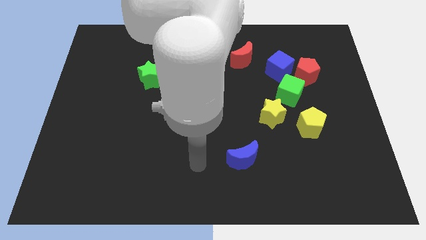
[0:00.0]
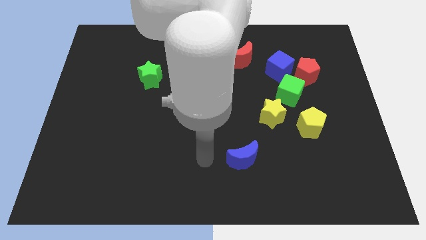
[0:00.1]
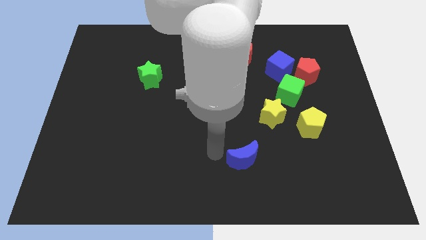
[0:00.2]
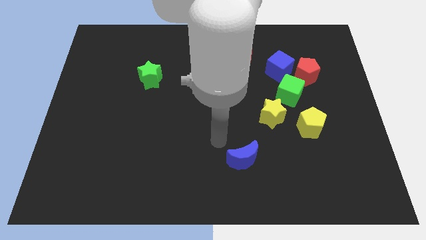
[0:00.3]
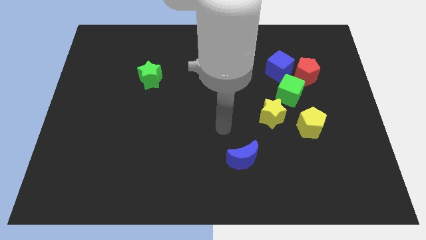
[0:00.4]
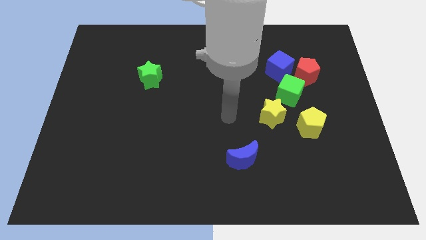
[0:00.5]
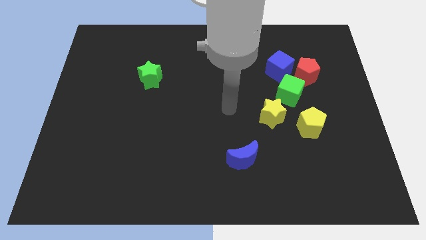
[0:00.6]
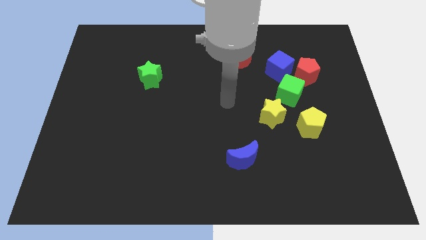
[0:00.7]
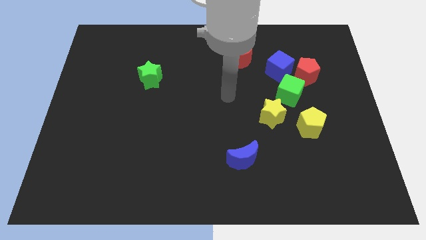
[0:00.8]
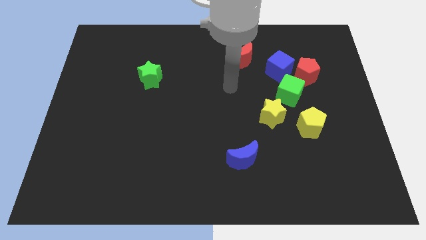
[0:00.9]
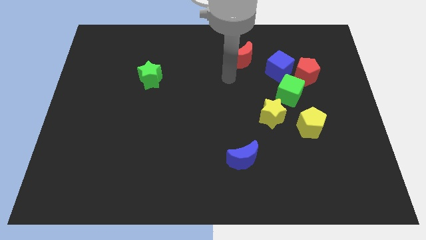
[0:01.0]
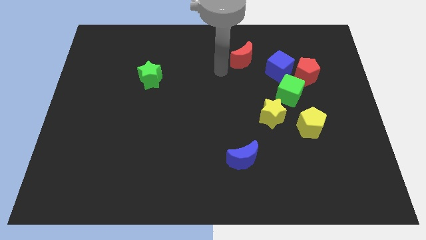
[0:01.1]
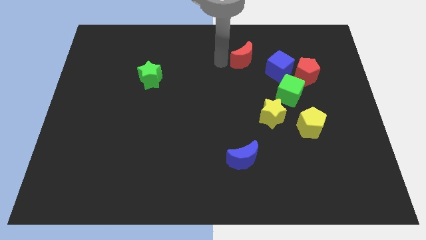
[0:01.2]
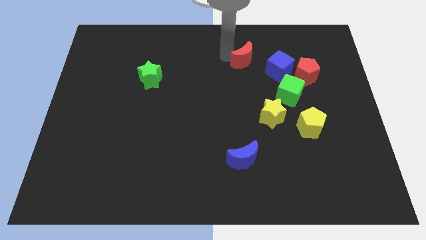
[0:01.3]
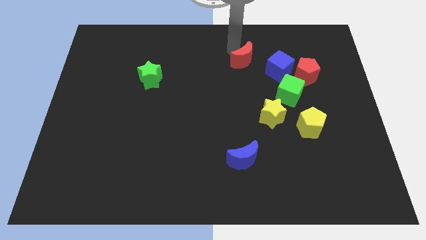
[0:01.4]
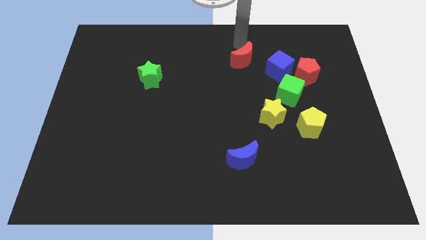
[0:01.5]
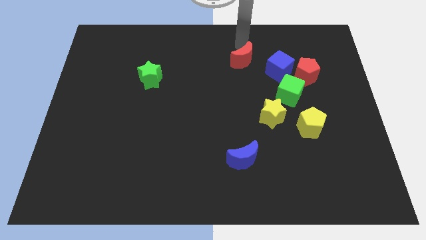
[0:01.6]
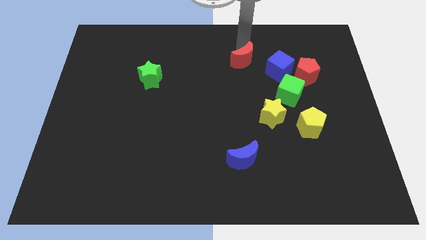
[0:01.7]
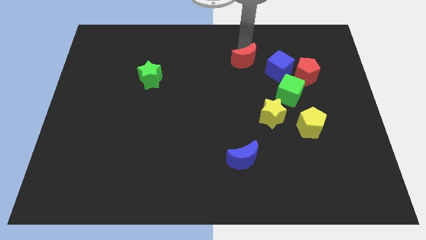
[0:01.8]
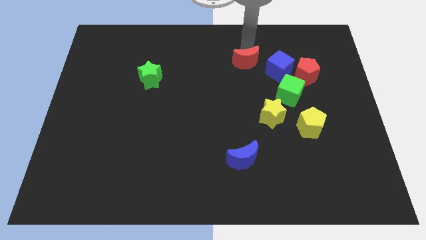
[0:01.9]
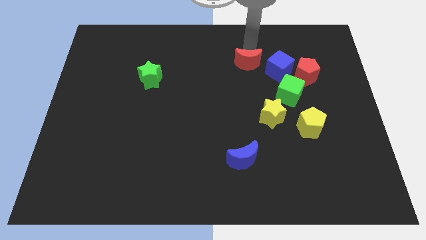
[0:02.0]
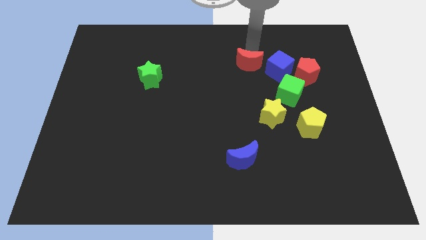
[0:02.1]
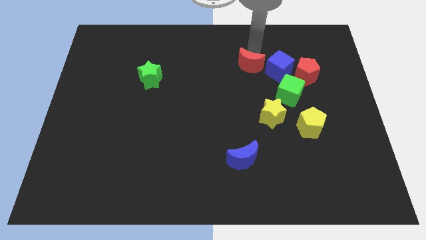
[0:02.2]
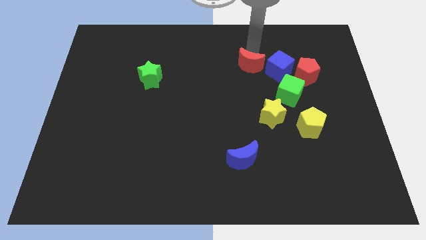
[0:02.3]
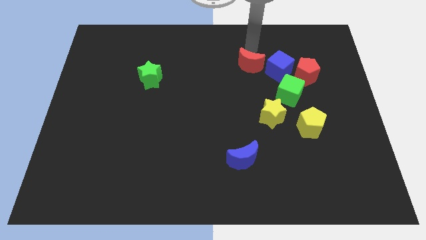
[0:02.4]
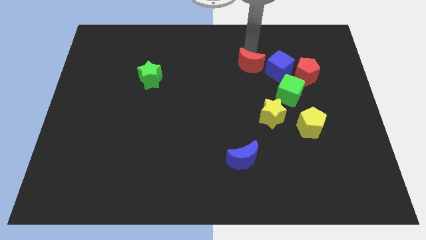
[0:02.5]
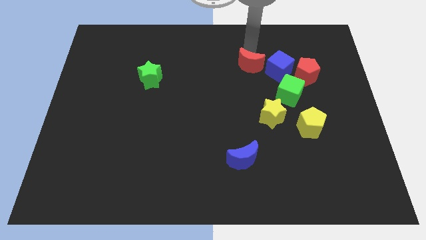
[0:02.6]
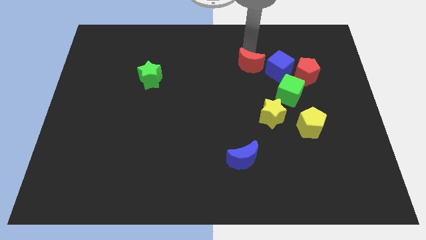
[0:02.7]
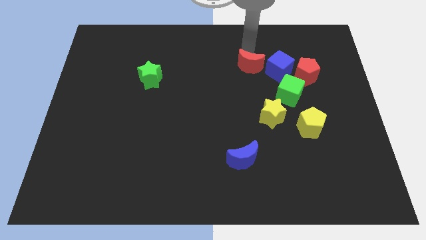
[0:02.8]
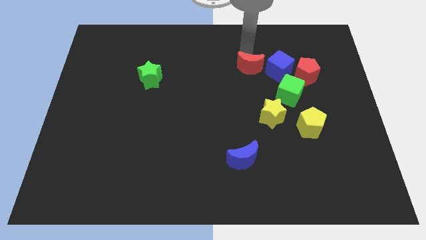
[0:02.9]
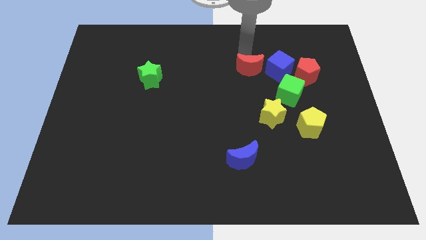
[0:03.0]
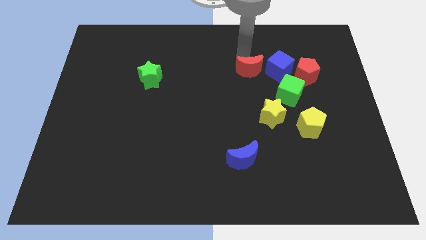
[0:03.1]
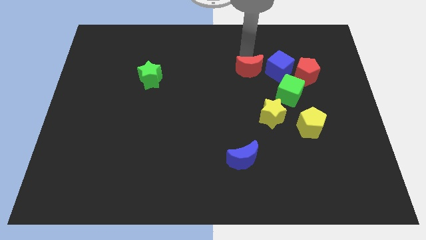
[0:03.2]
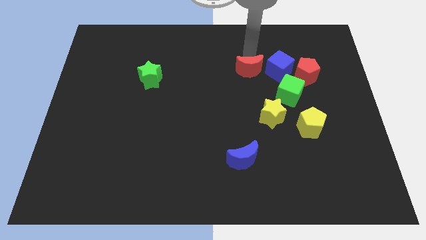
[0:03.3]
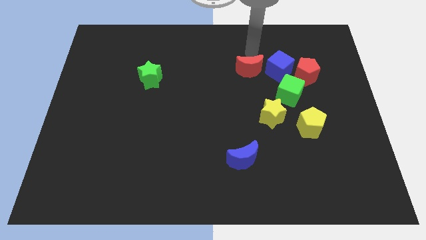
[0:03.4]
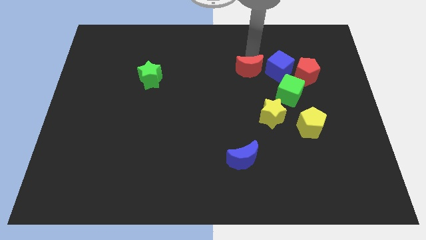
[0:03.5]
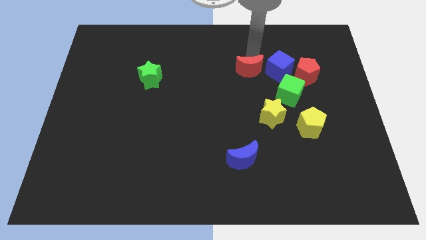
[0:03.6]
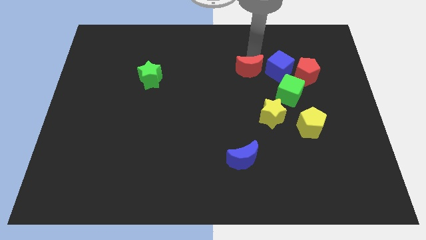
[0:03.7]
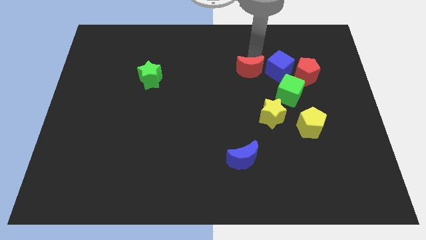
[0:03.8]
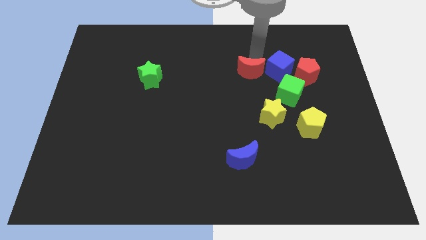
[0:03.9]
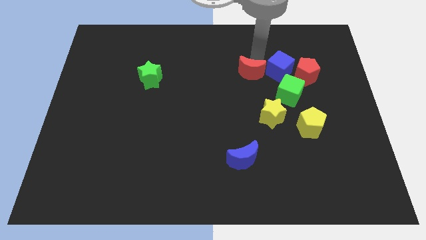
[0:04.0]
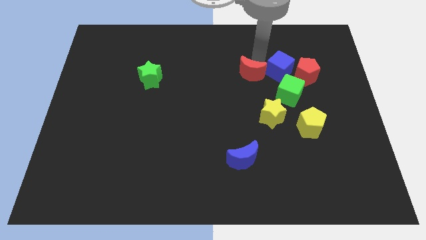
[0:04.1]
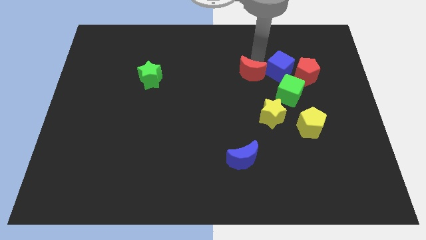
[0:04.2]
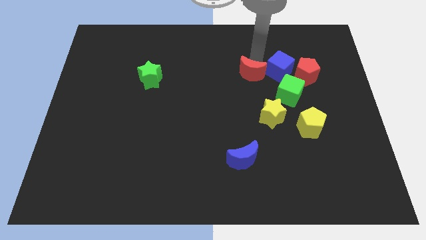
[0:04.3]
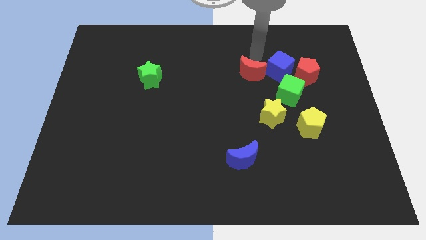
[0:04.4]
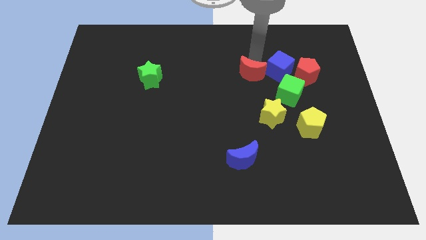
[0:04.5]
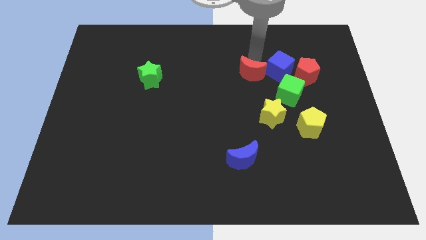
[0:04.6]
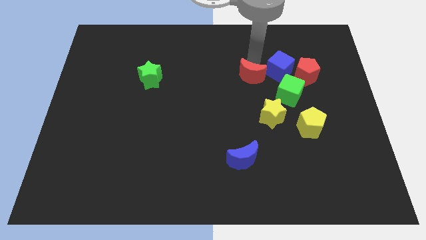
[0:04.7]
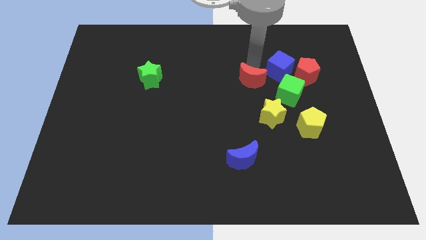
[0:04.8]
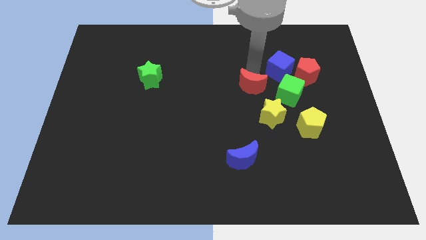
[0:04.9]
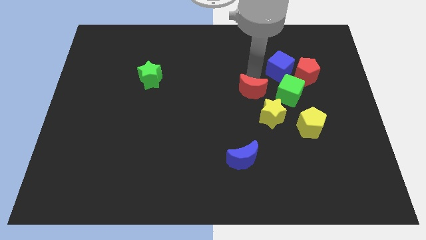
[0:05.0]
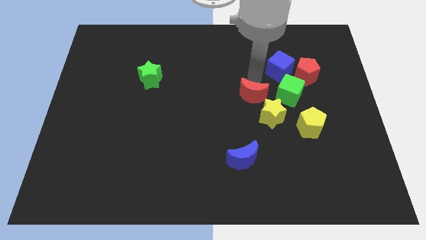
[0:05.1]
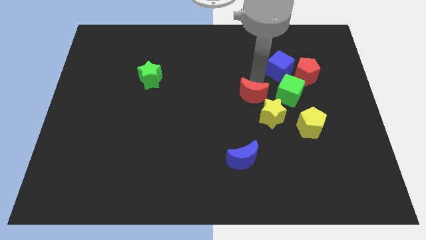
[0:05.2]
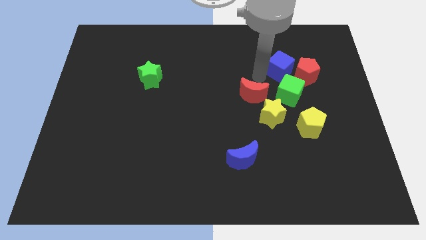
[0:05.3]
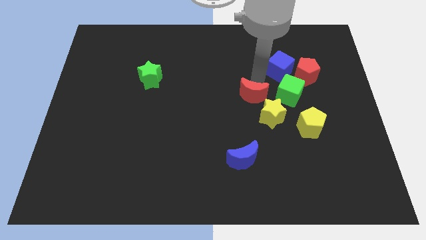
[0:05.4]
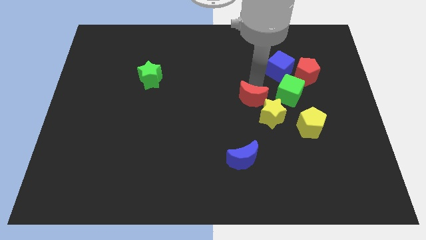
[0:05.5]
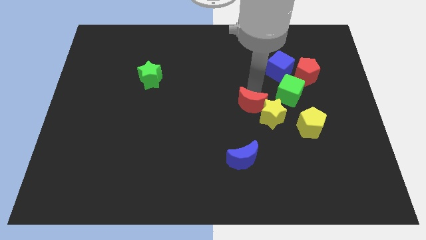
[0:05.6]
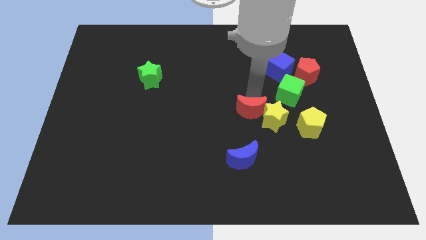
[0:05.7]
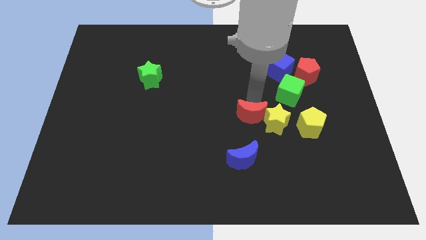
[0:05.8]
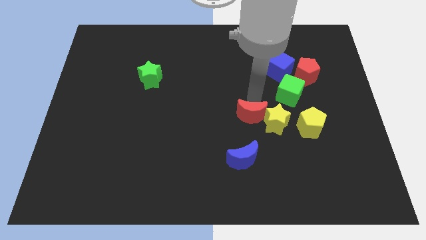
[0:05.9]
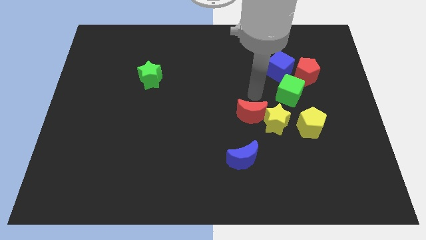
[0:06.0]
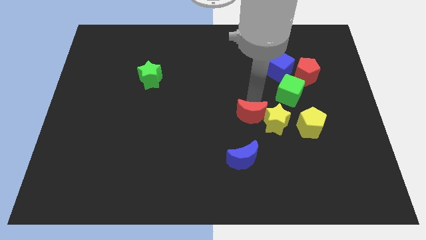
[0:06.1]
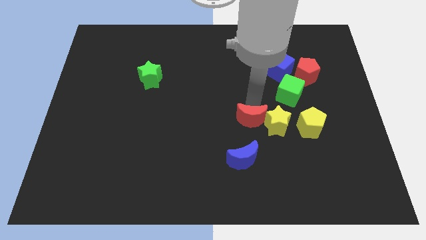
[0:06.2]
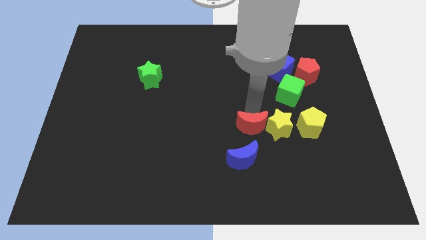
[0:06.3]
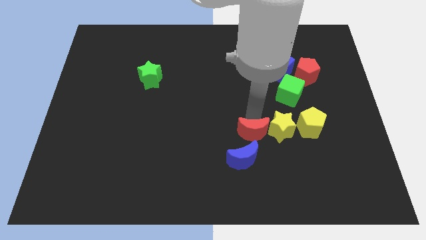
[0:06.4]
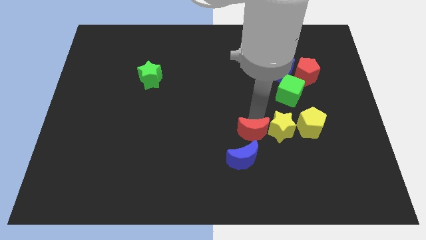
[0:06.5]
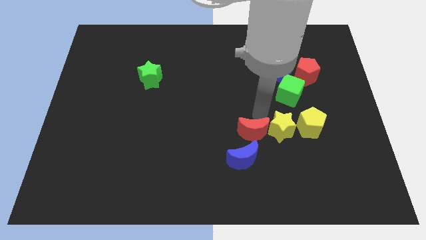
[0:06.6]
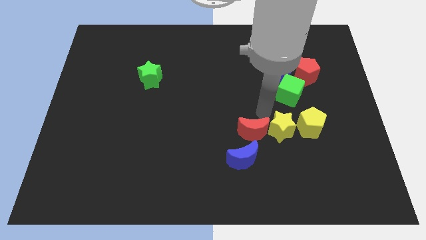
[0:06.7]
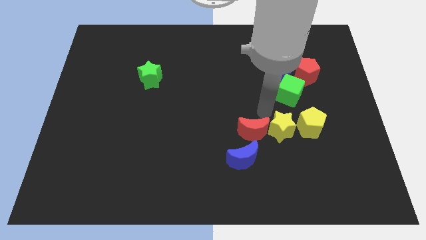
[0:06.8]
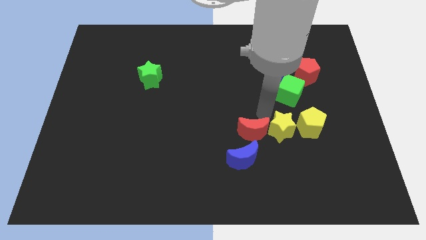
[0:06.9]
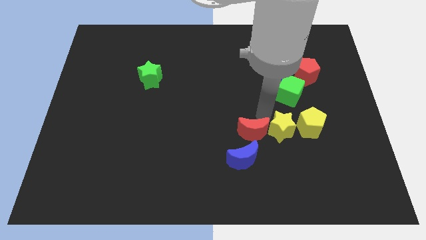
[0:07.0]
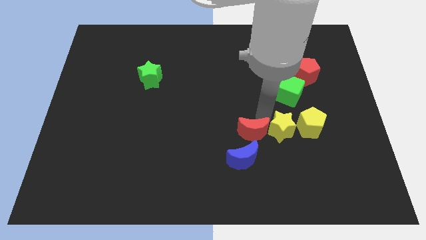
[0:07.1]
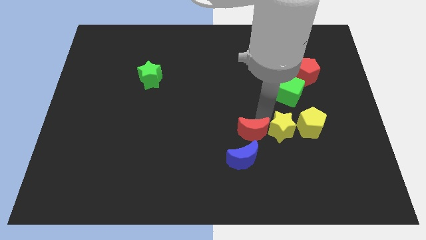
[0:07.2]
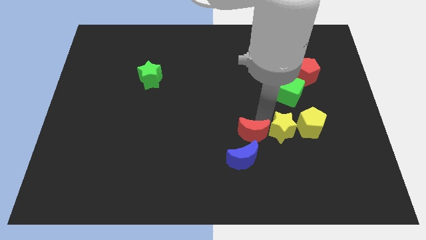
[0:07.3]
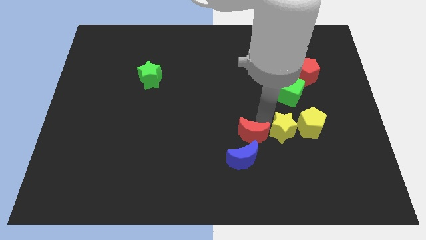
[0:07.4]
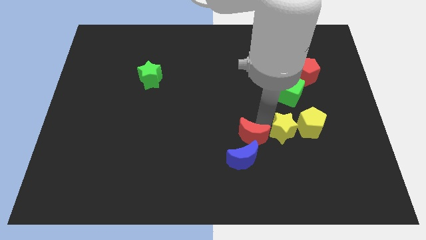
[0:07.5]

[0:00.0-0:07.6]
move the red moon towards the blue moon
